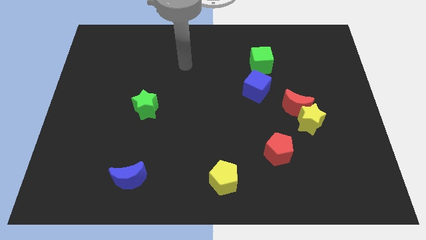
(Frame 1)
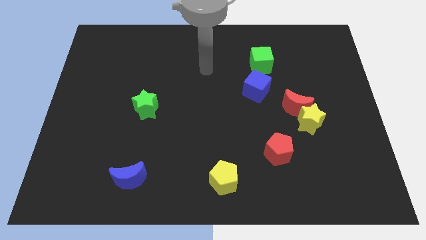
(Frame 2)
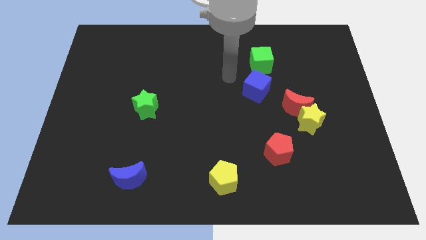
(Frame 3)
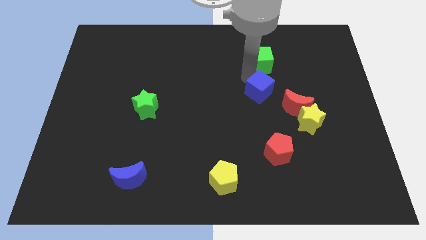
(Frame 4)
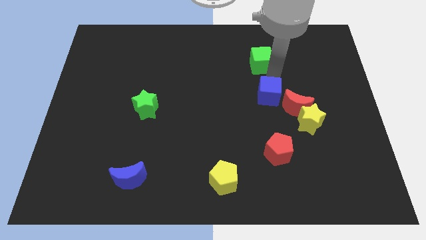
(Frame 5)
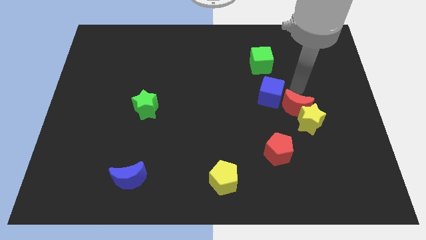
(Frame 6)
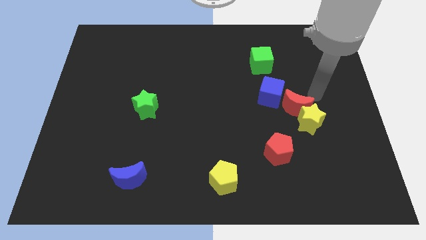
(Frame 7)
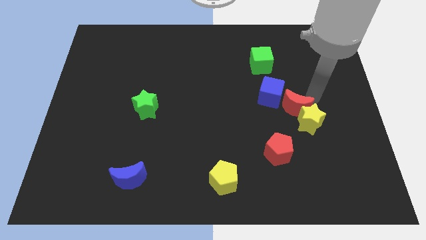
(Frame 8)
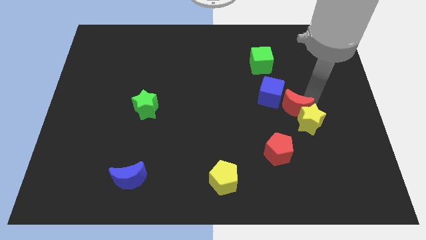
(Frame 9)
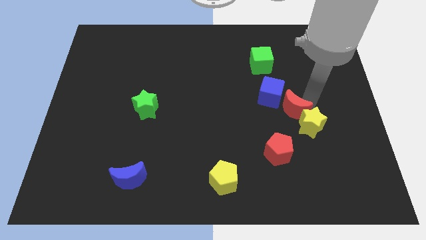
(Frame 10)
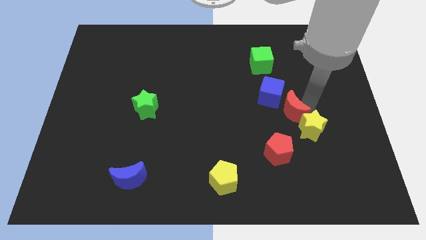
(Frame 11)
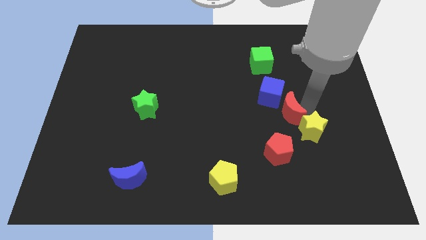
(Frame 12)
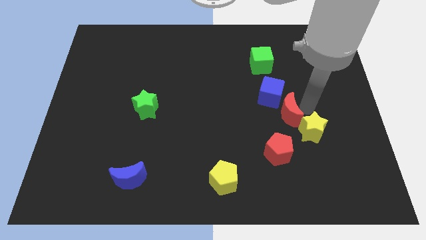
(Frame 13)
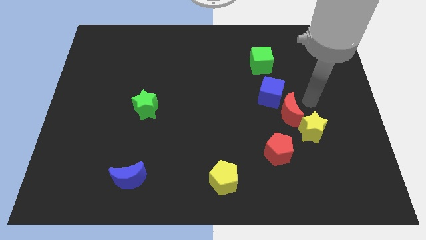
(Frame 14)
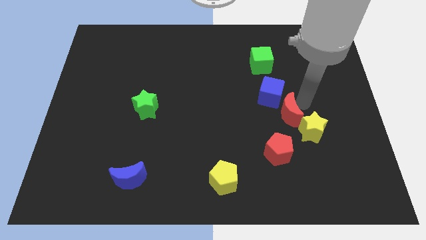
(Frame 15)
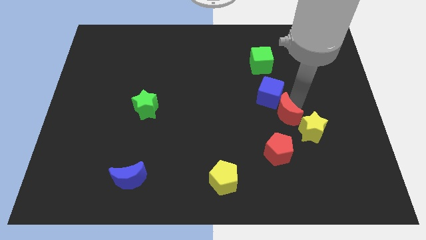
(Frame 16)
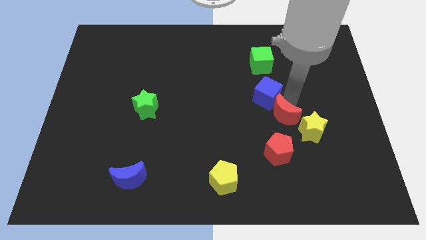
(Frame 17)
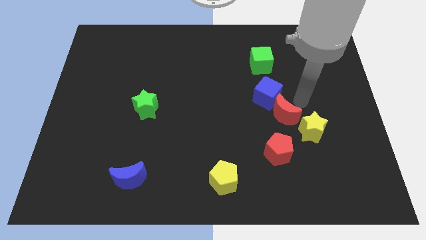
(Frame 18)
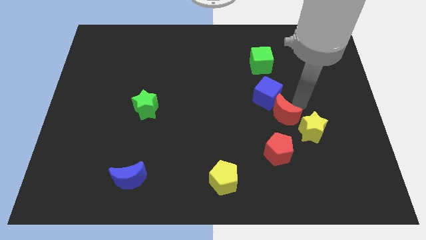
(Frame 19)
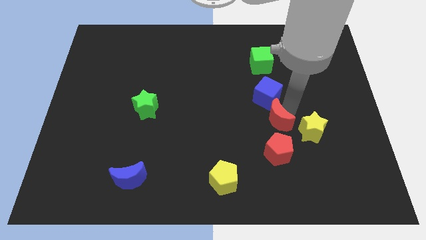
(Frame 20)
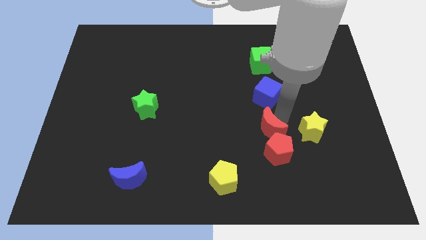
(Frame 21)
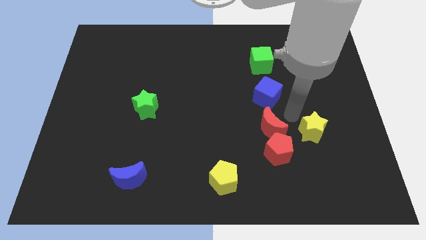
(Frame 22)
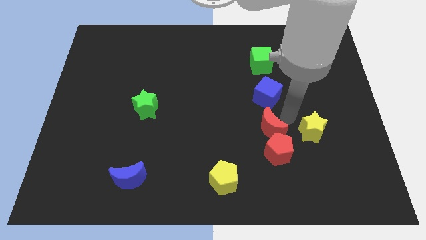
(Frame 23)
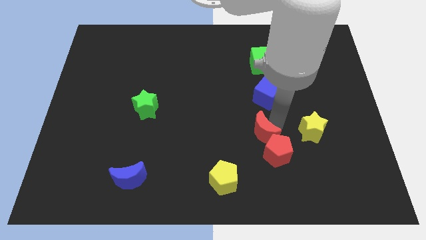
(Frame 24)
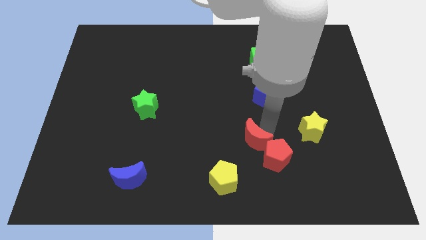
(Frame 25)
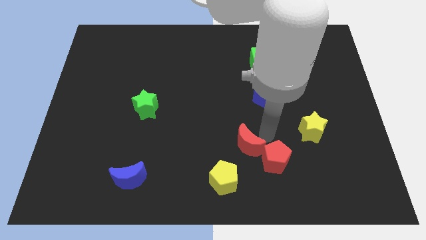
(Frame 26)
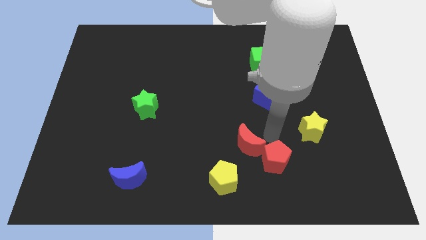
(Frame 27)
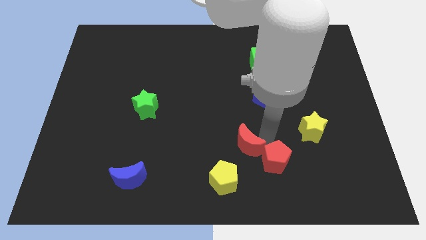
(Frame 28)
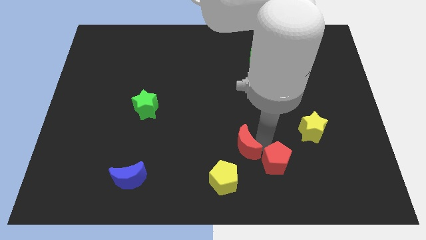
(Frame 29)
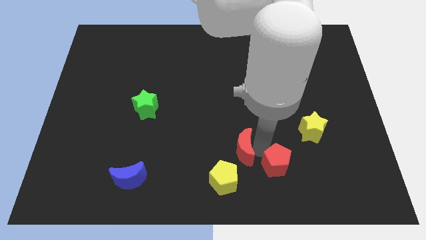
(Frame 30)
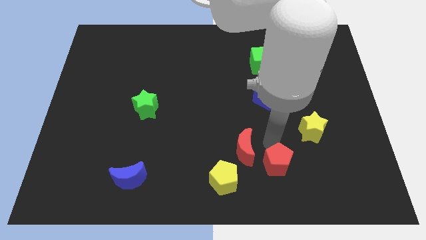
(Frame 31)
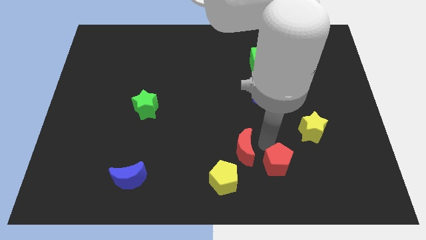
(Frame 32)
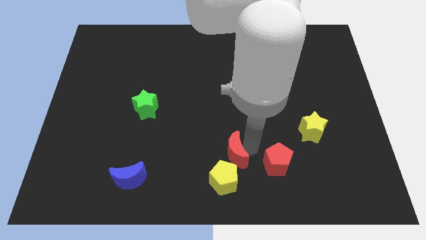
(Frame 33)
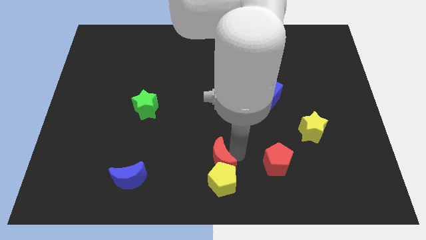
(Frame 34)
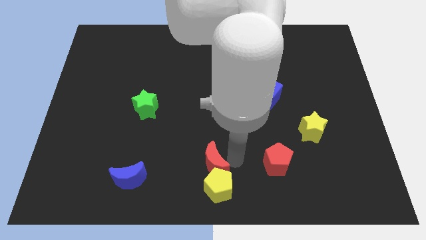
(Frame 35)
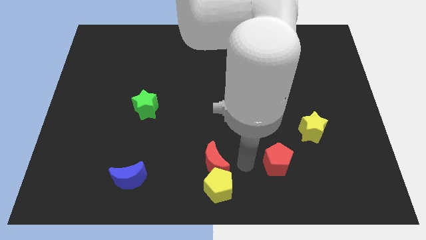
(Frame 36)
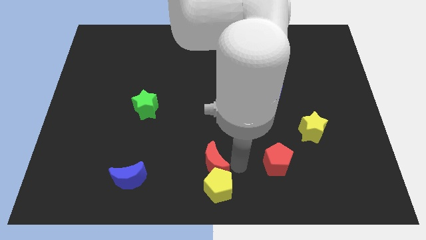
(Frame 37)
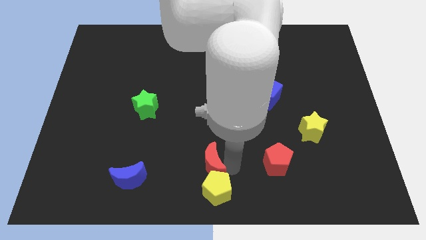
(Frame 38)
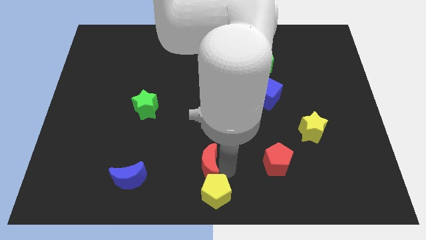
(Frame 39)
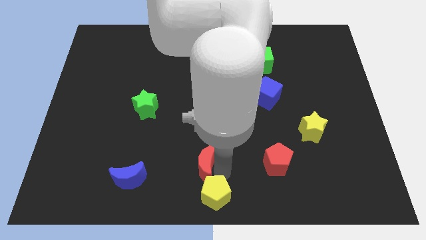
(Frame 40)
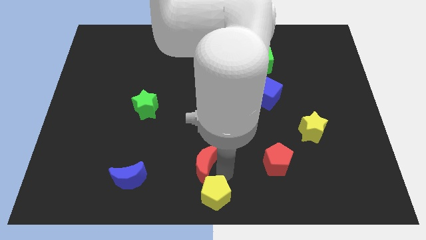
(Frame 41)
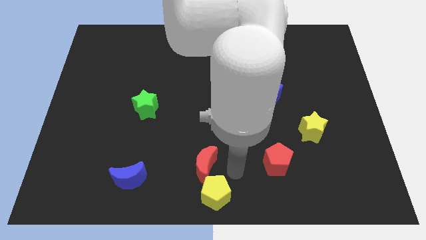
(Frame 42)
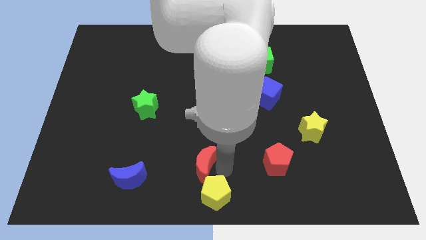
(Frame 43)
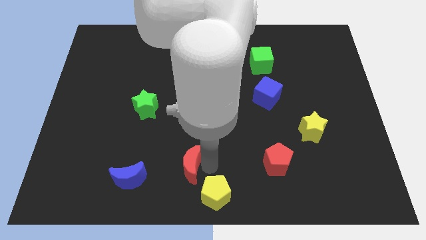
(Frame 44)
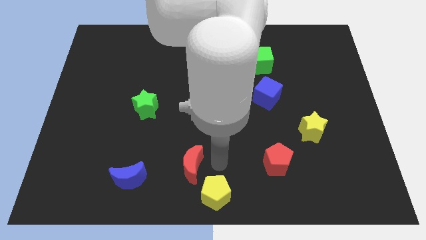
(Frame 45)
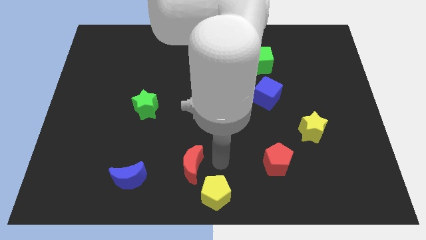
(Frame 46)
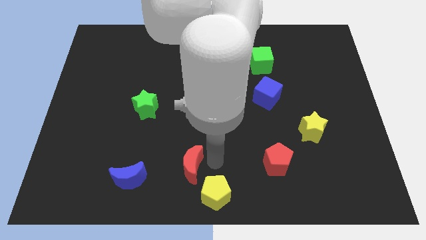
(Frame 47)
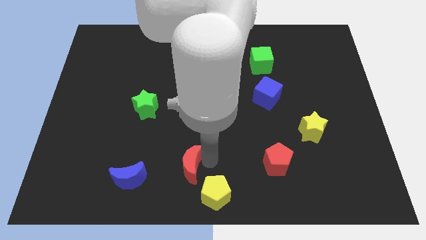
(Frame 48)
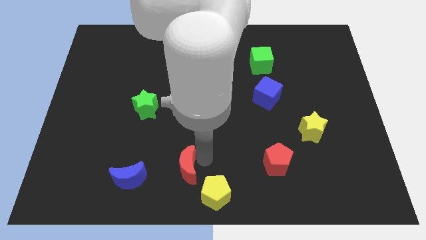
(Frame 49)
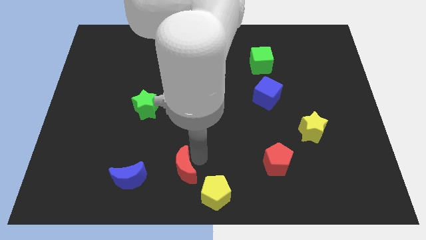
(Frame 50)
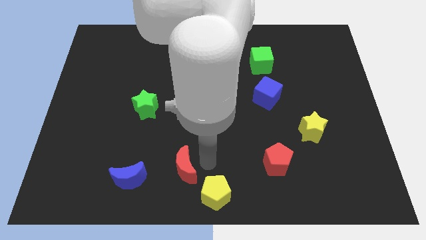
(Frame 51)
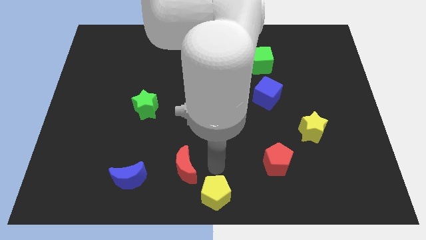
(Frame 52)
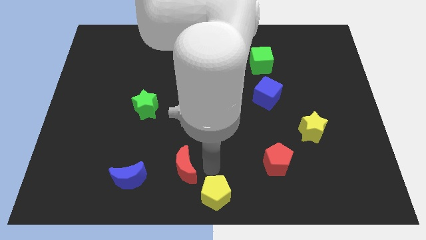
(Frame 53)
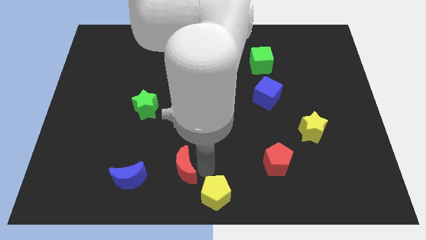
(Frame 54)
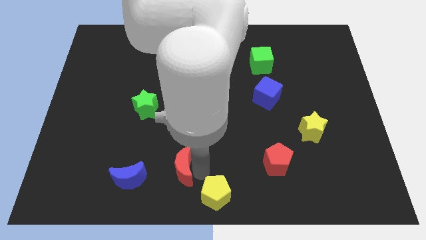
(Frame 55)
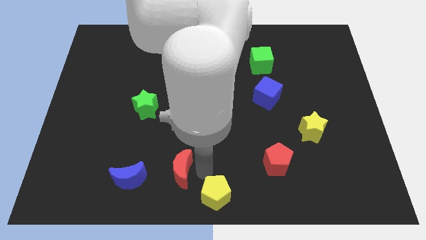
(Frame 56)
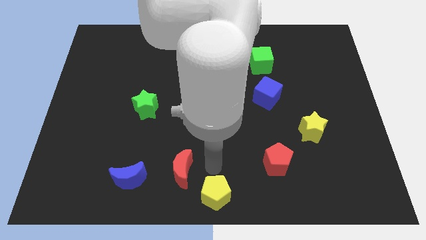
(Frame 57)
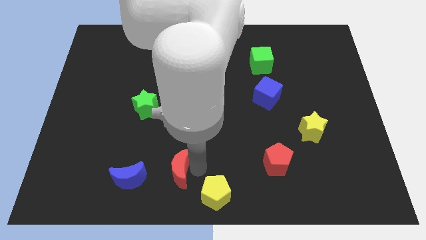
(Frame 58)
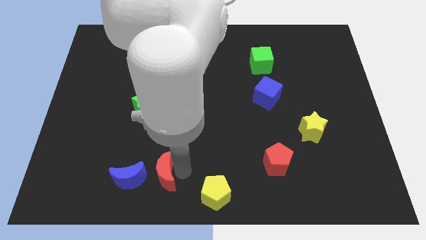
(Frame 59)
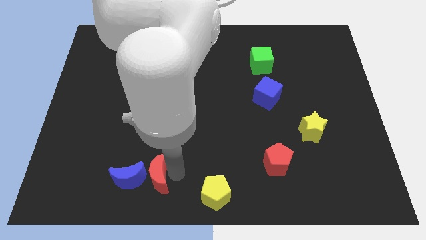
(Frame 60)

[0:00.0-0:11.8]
push the red moon to the blue moon

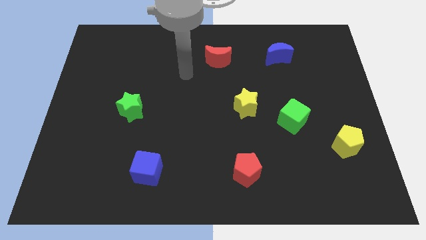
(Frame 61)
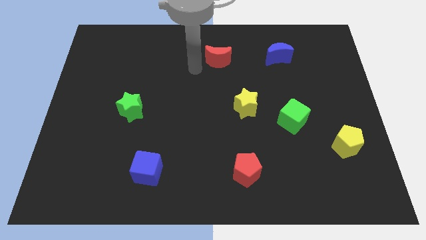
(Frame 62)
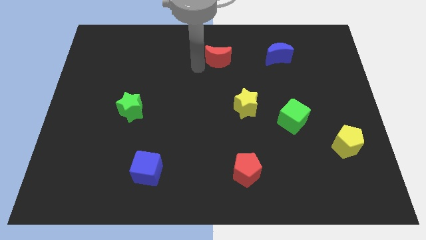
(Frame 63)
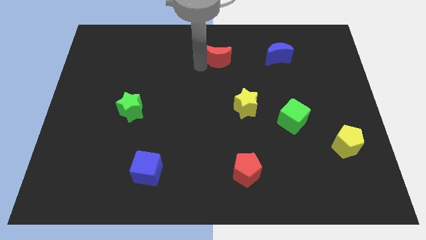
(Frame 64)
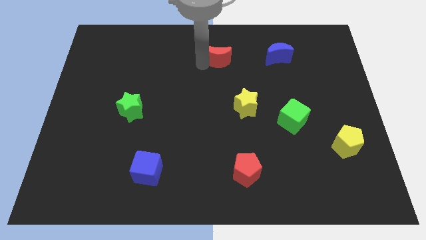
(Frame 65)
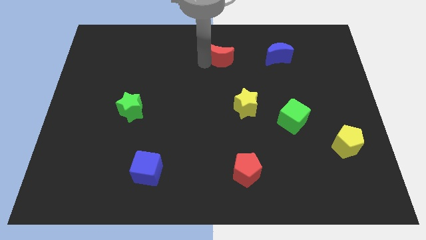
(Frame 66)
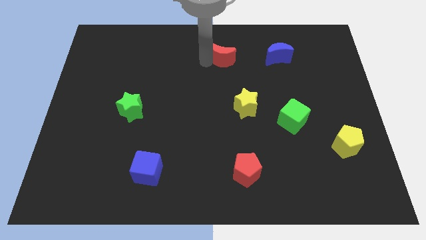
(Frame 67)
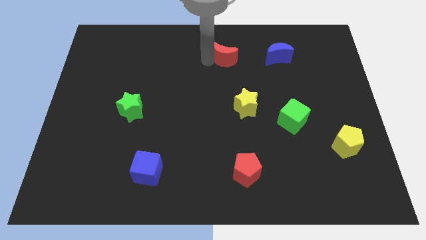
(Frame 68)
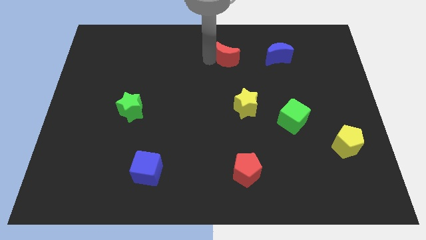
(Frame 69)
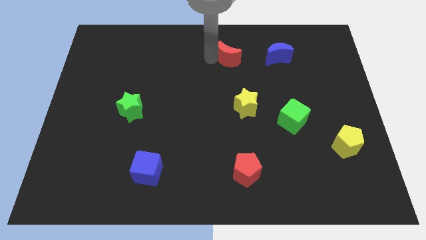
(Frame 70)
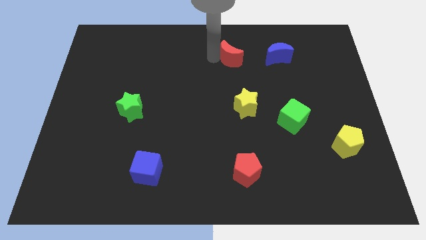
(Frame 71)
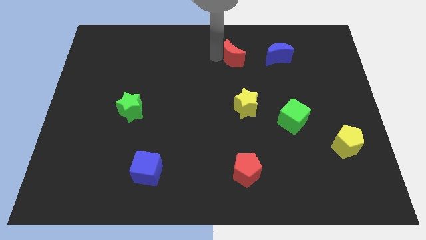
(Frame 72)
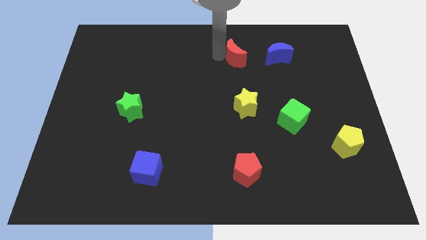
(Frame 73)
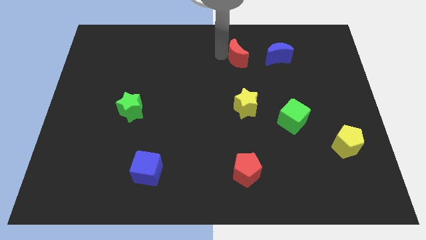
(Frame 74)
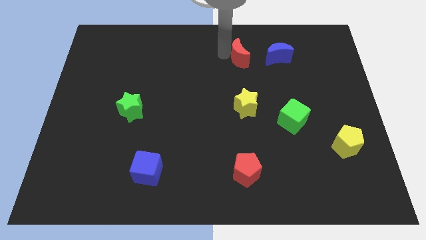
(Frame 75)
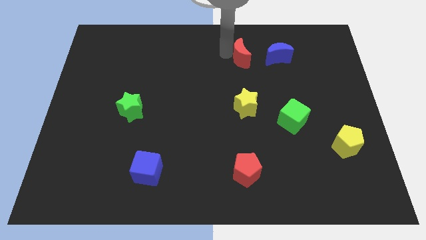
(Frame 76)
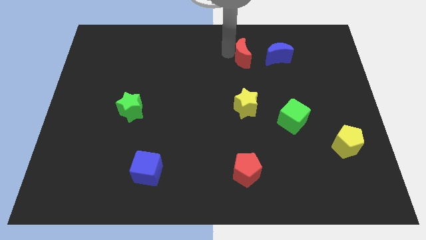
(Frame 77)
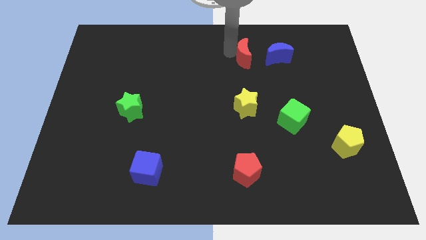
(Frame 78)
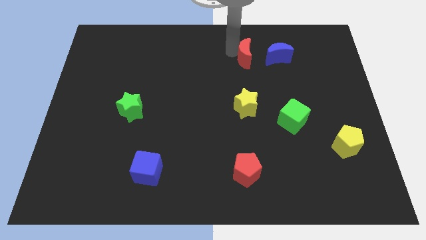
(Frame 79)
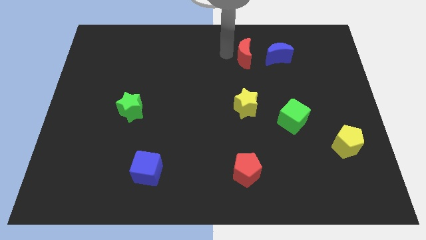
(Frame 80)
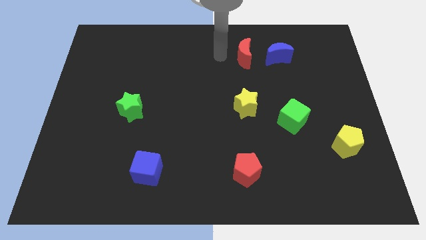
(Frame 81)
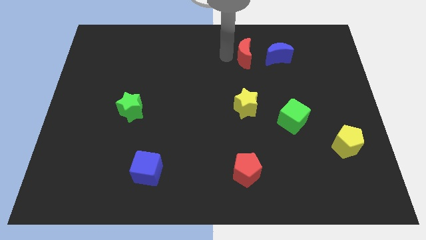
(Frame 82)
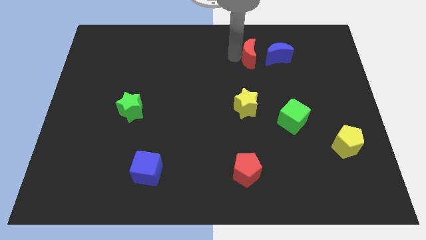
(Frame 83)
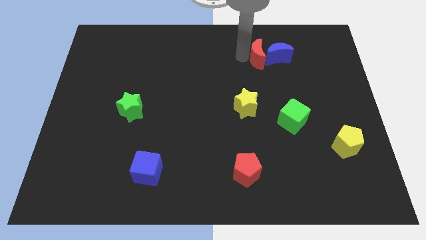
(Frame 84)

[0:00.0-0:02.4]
move the red moon close to the blue moon
